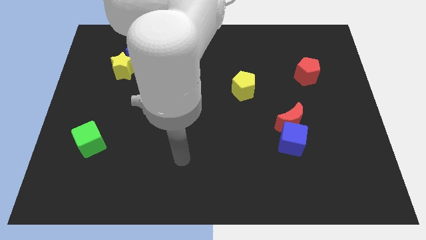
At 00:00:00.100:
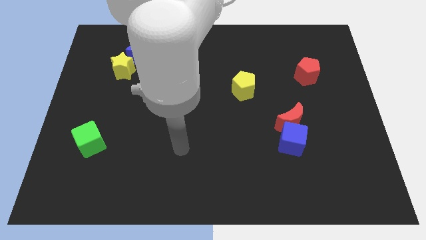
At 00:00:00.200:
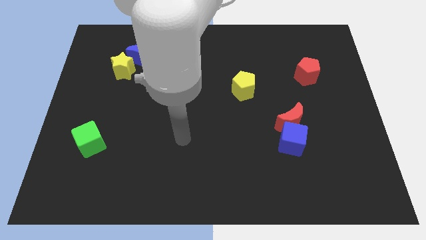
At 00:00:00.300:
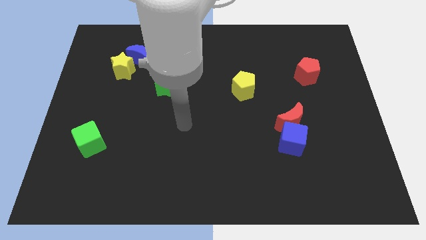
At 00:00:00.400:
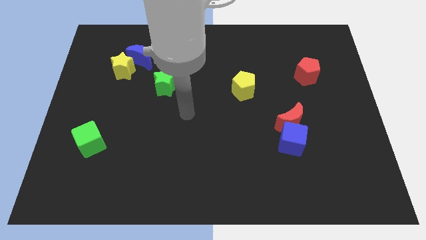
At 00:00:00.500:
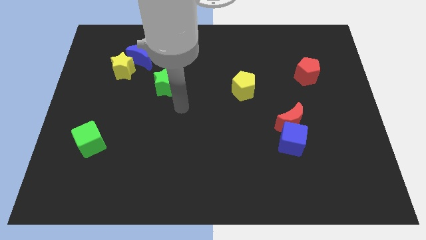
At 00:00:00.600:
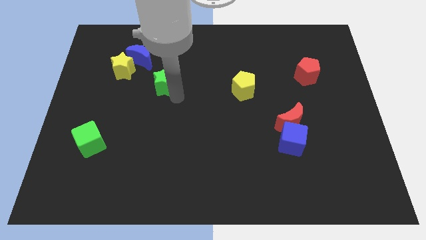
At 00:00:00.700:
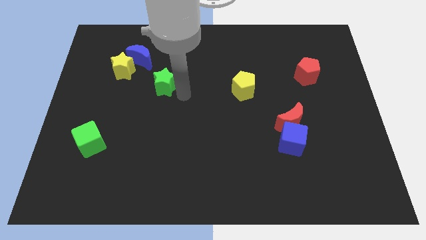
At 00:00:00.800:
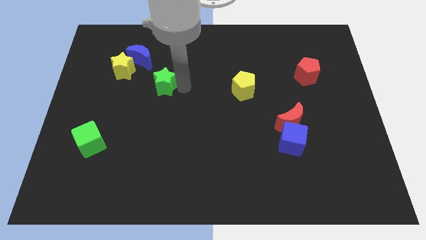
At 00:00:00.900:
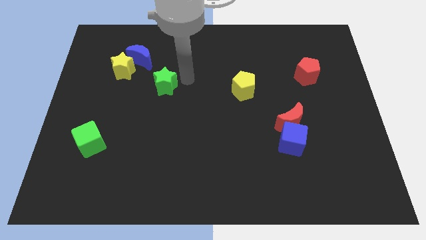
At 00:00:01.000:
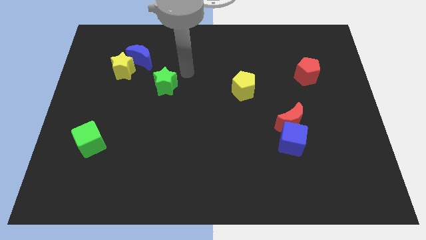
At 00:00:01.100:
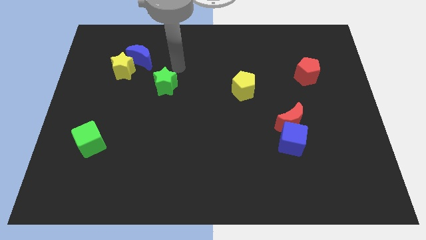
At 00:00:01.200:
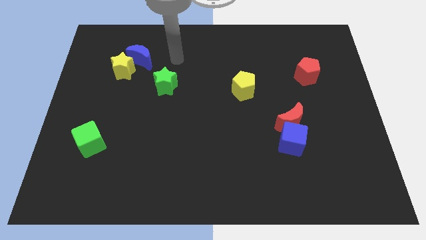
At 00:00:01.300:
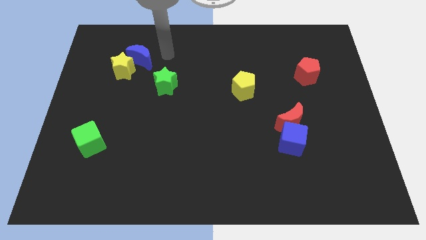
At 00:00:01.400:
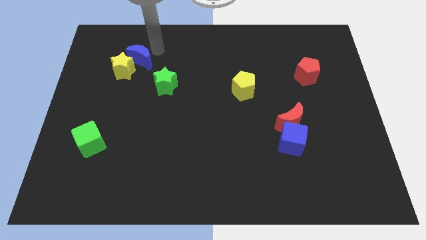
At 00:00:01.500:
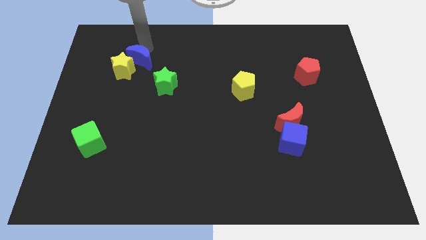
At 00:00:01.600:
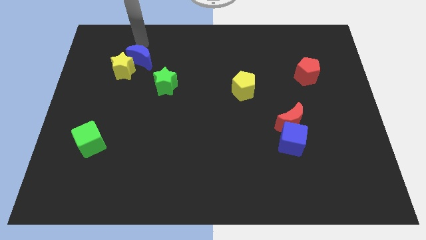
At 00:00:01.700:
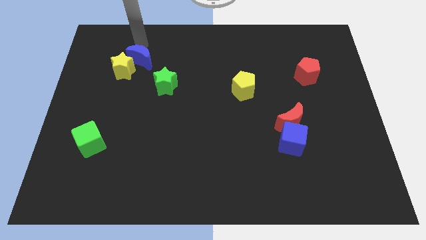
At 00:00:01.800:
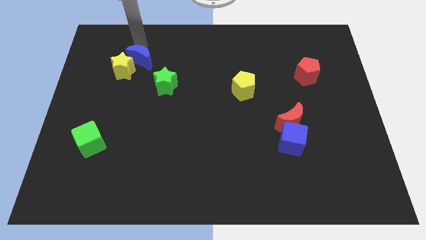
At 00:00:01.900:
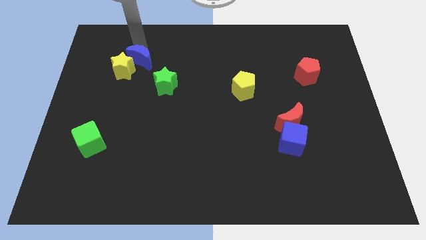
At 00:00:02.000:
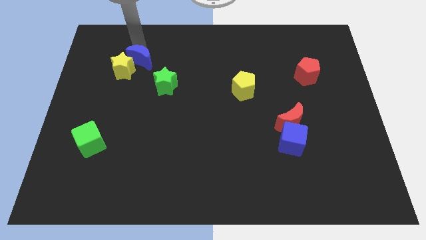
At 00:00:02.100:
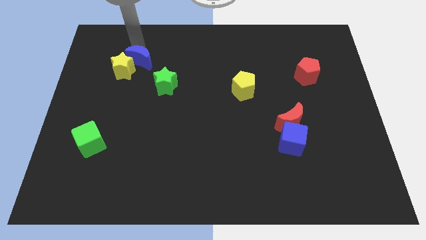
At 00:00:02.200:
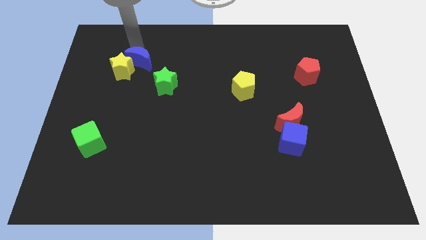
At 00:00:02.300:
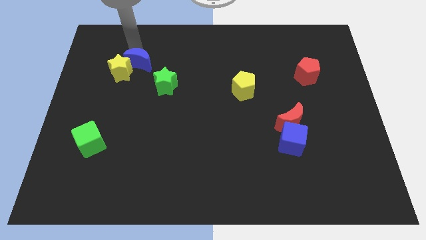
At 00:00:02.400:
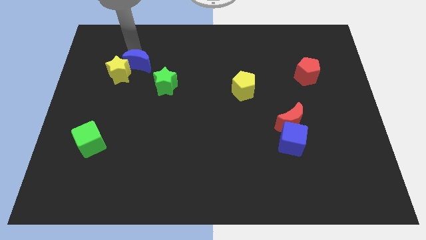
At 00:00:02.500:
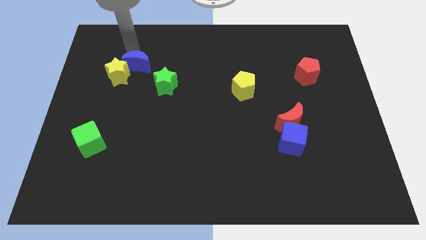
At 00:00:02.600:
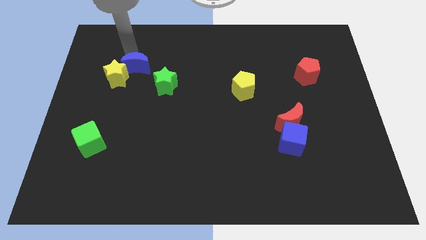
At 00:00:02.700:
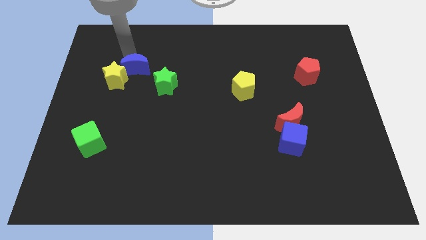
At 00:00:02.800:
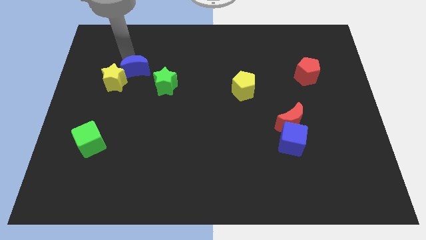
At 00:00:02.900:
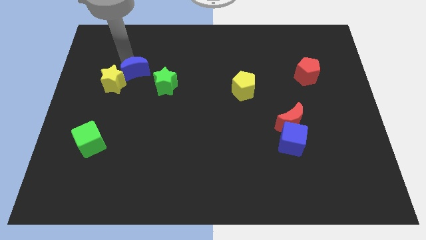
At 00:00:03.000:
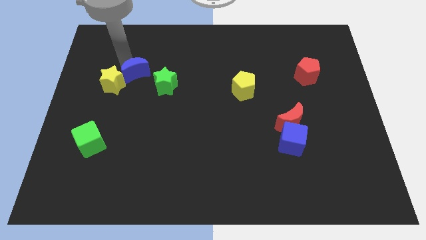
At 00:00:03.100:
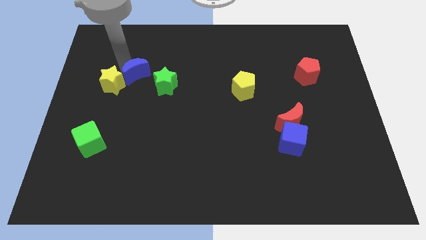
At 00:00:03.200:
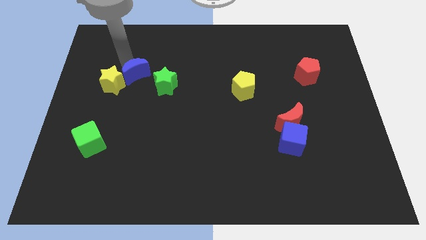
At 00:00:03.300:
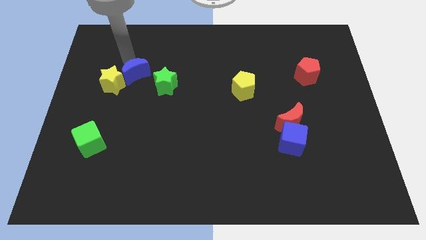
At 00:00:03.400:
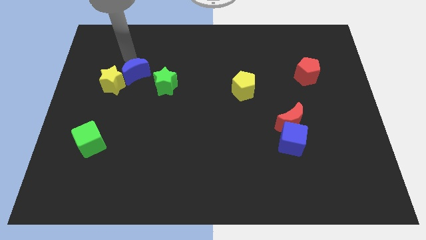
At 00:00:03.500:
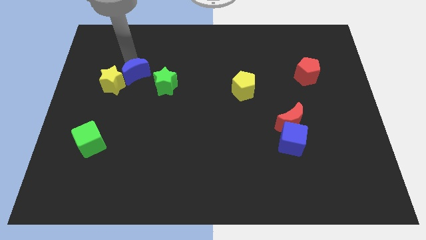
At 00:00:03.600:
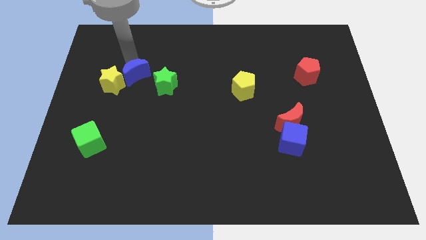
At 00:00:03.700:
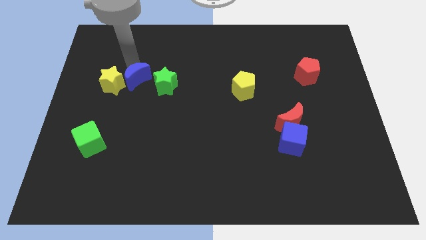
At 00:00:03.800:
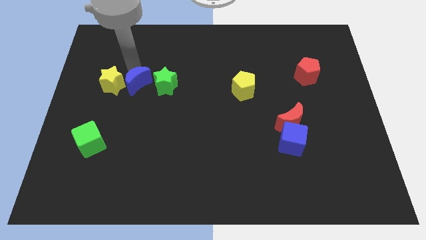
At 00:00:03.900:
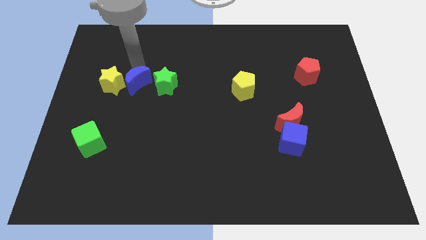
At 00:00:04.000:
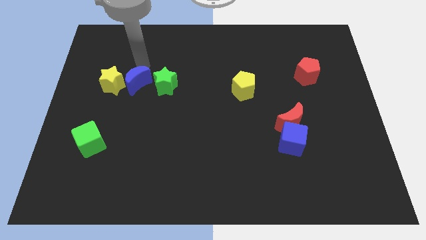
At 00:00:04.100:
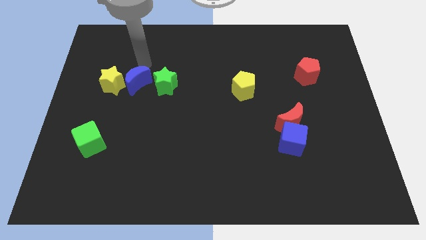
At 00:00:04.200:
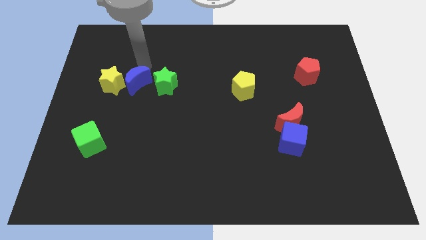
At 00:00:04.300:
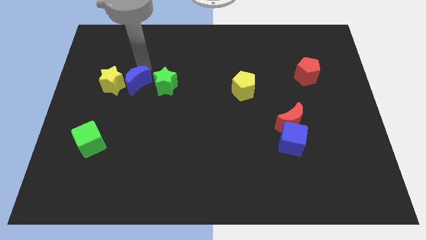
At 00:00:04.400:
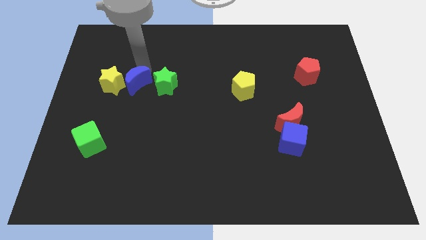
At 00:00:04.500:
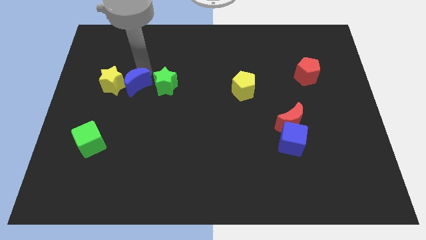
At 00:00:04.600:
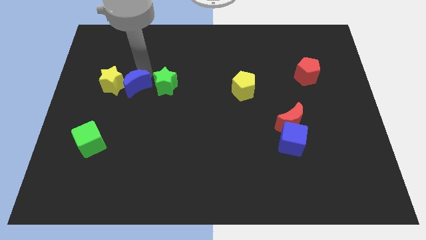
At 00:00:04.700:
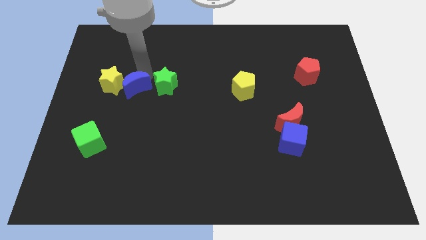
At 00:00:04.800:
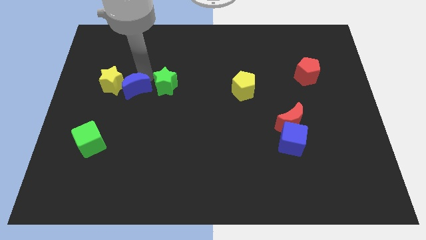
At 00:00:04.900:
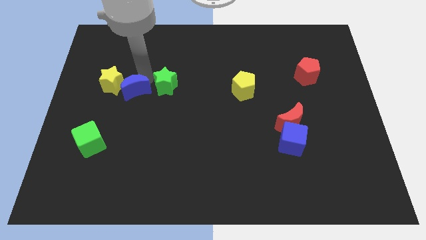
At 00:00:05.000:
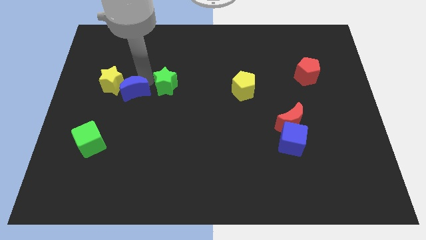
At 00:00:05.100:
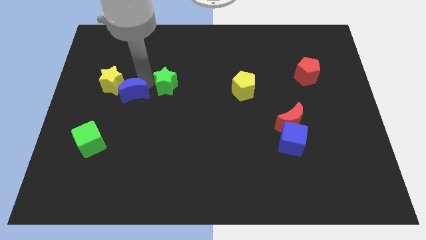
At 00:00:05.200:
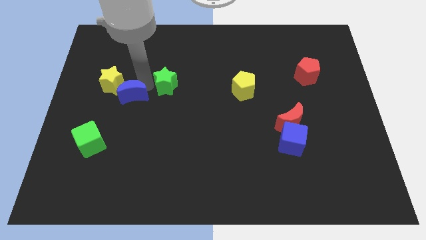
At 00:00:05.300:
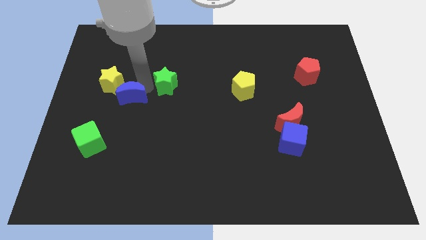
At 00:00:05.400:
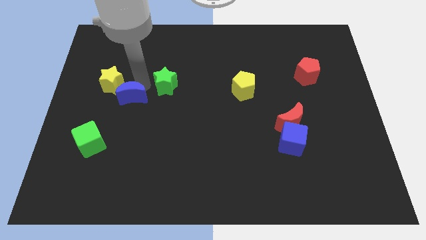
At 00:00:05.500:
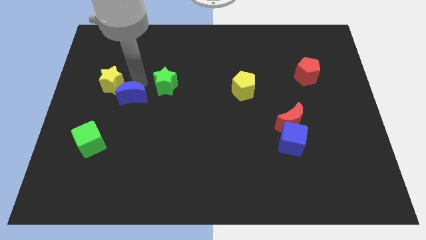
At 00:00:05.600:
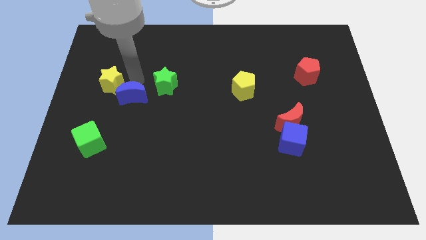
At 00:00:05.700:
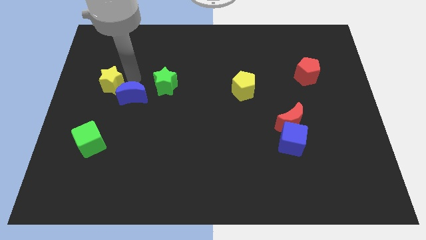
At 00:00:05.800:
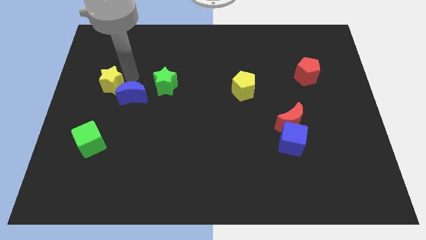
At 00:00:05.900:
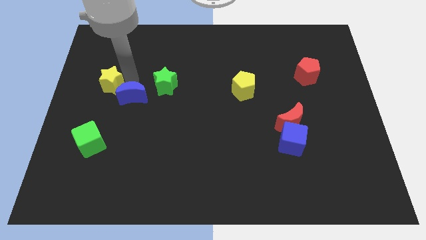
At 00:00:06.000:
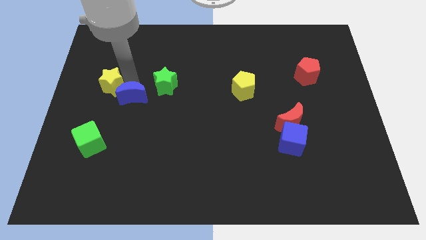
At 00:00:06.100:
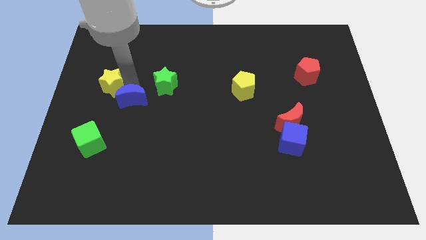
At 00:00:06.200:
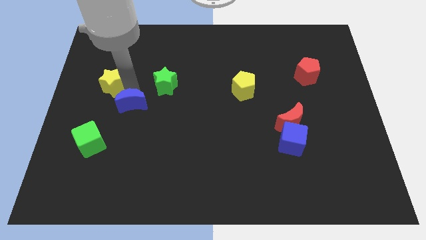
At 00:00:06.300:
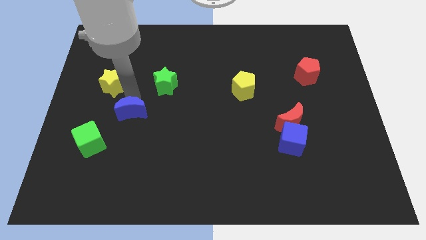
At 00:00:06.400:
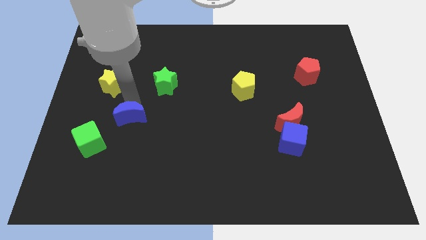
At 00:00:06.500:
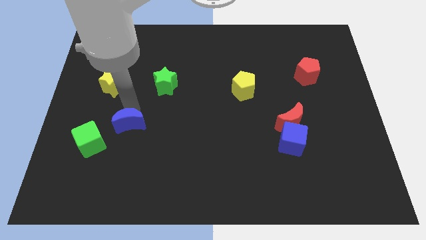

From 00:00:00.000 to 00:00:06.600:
push the blue moon downwards

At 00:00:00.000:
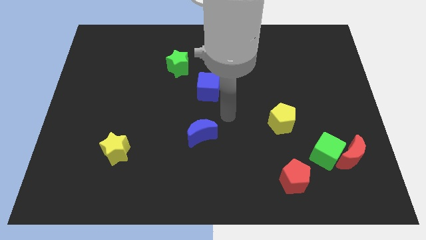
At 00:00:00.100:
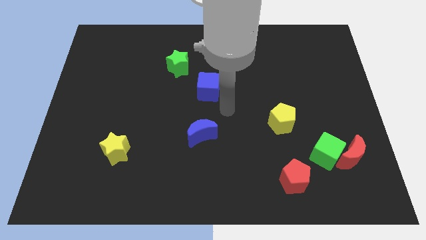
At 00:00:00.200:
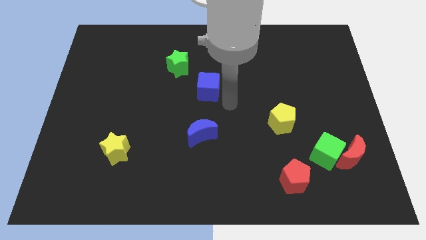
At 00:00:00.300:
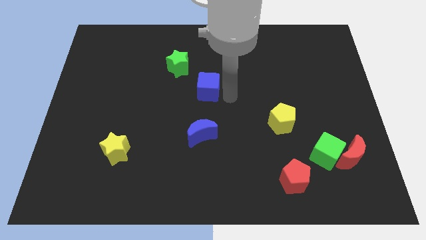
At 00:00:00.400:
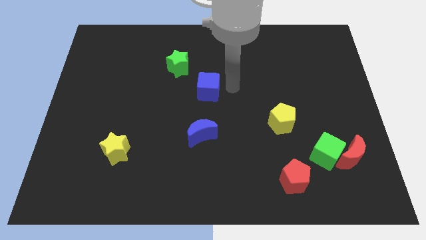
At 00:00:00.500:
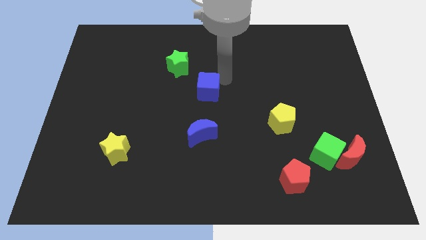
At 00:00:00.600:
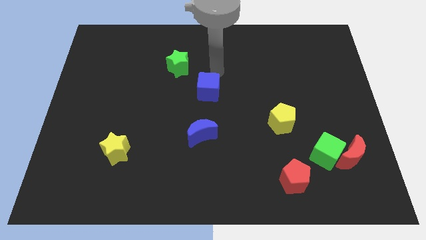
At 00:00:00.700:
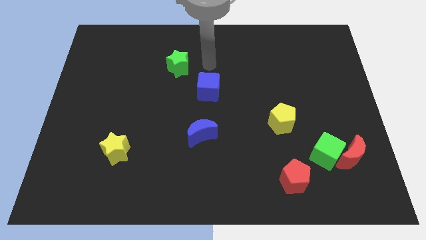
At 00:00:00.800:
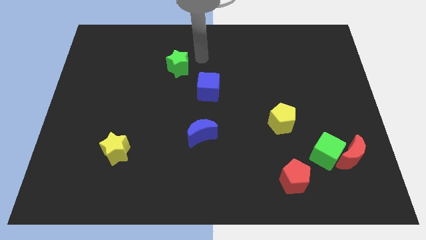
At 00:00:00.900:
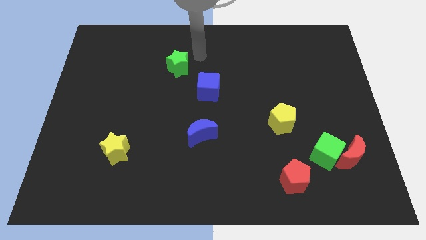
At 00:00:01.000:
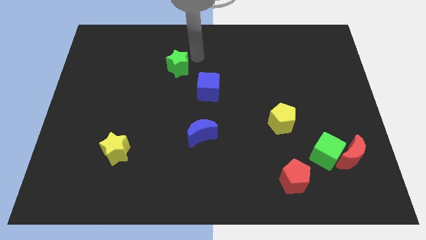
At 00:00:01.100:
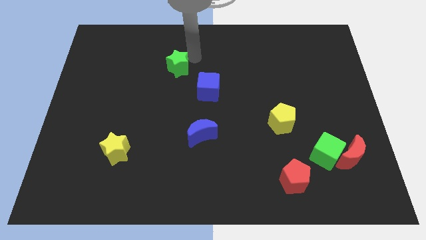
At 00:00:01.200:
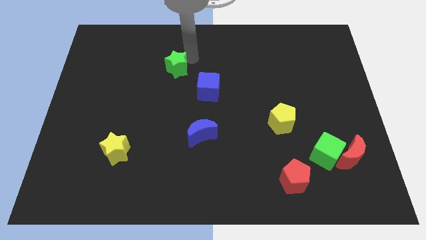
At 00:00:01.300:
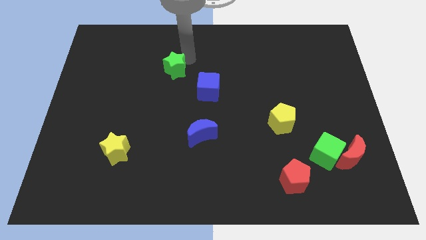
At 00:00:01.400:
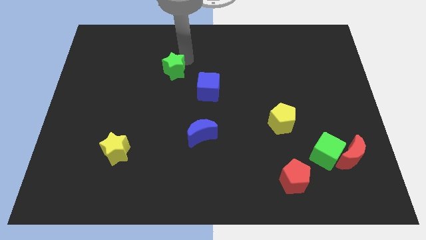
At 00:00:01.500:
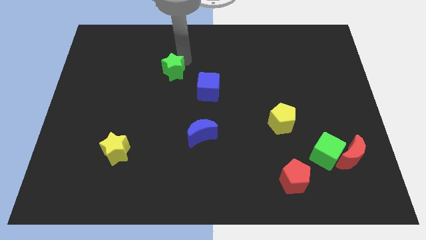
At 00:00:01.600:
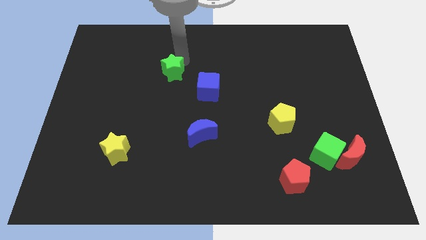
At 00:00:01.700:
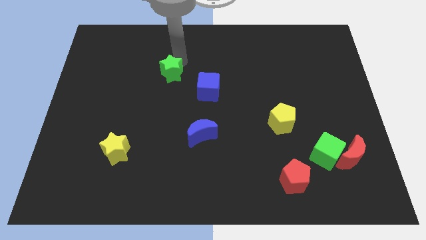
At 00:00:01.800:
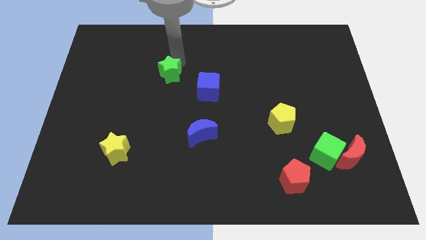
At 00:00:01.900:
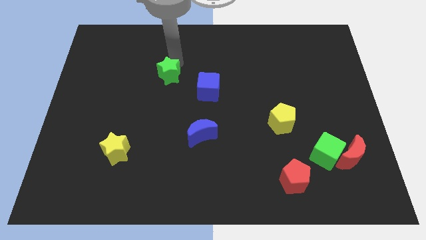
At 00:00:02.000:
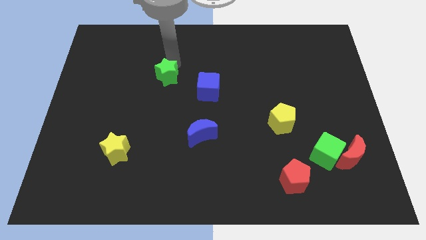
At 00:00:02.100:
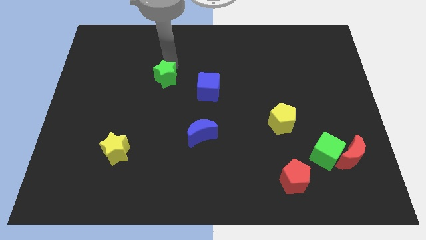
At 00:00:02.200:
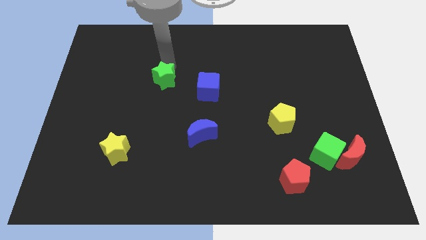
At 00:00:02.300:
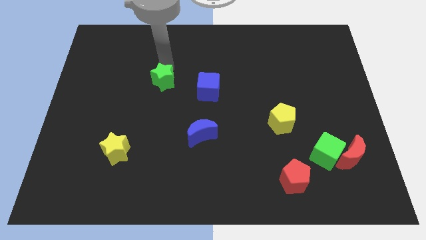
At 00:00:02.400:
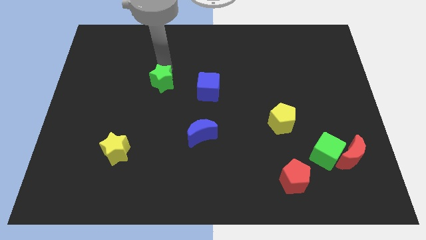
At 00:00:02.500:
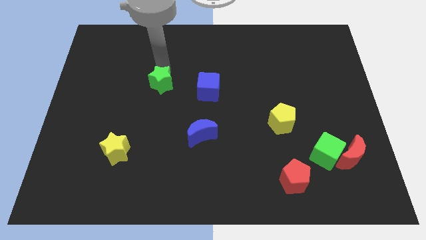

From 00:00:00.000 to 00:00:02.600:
slide the green star a bit down and then to the left
